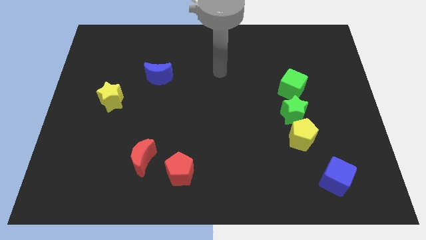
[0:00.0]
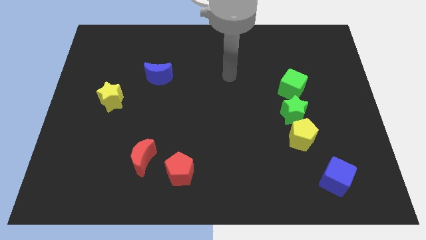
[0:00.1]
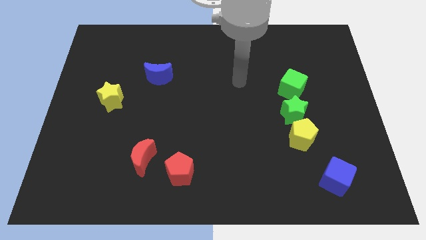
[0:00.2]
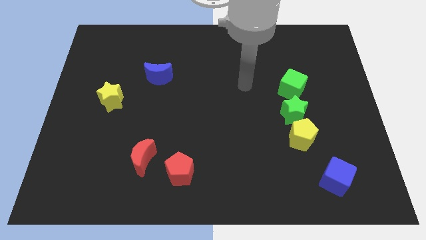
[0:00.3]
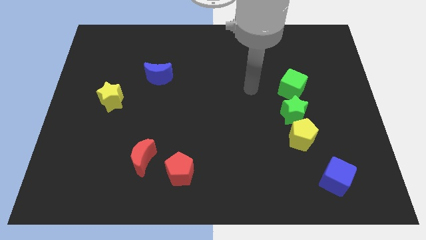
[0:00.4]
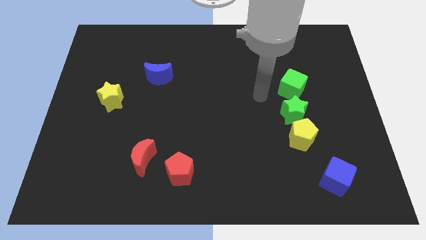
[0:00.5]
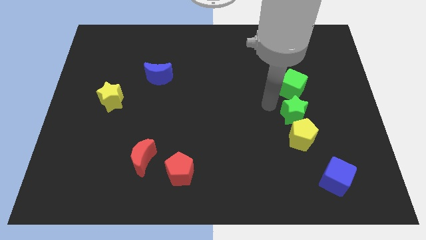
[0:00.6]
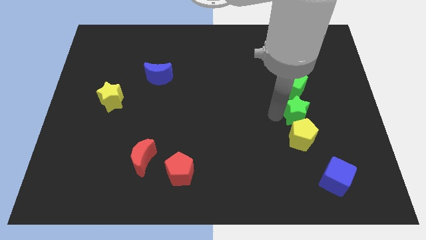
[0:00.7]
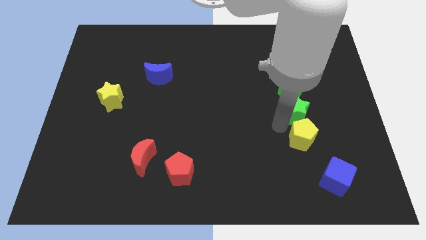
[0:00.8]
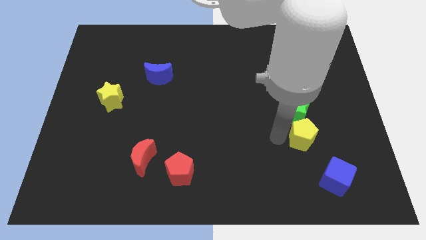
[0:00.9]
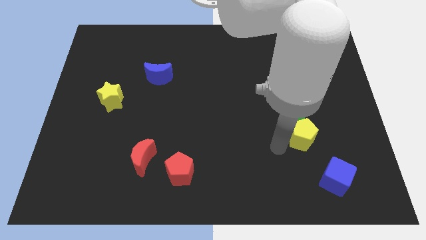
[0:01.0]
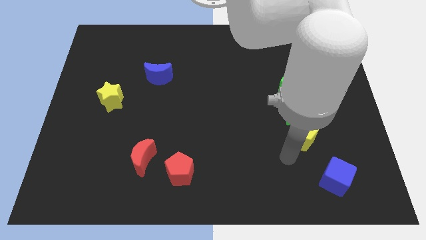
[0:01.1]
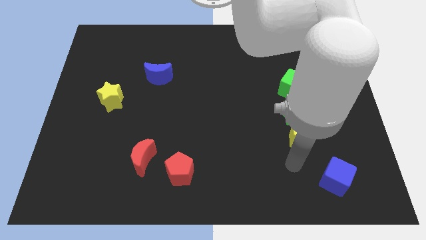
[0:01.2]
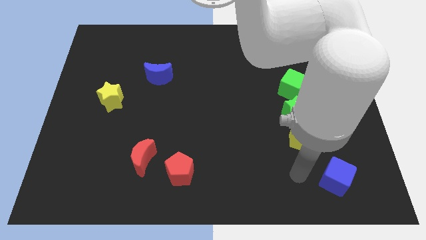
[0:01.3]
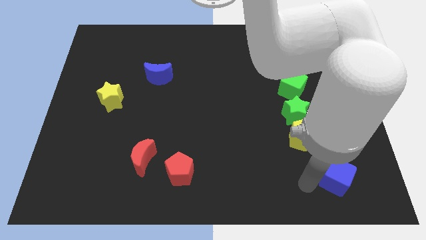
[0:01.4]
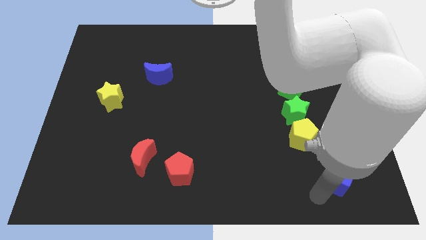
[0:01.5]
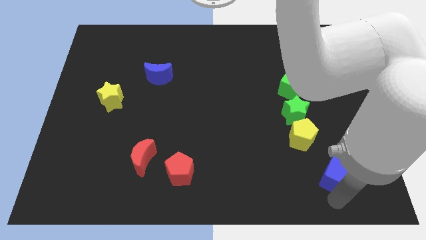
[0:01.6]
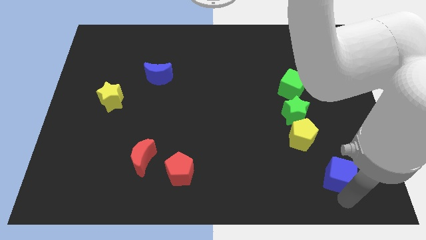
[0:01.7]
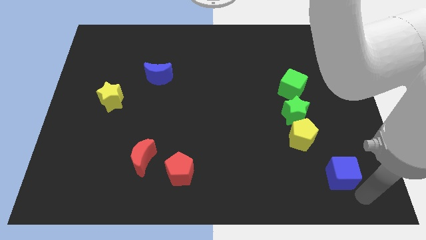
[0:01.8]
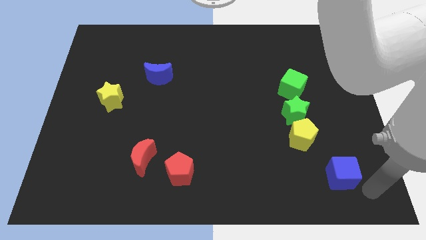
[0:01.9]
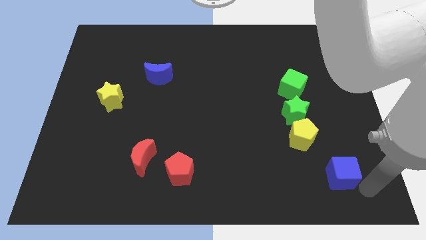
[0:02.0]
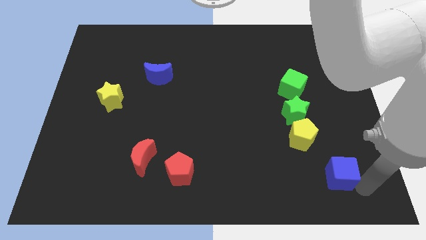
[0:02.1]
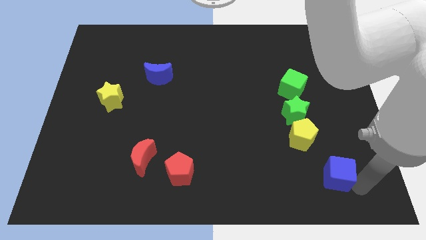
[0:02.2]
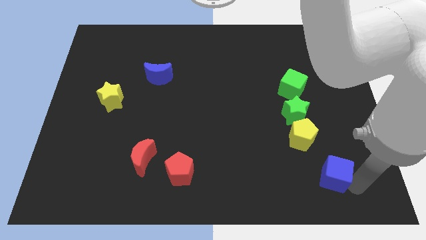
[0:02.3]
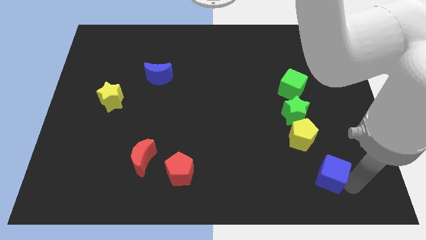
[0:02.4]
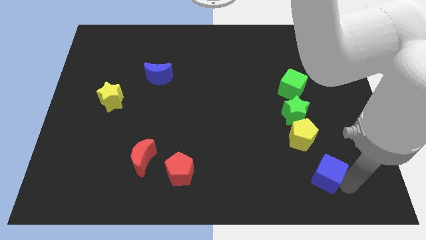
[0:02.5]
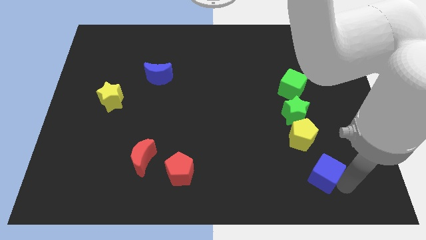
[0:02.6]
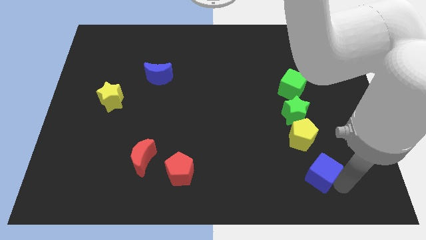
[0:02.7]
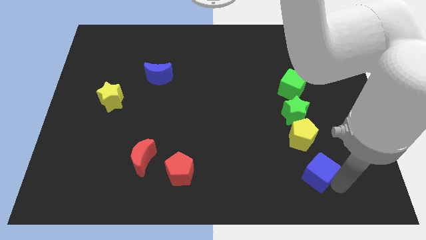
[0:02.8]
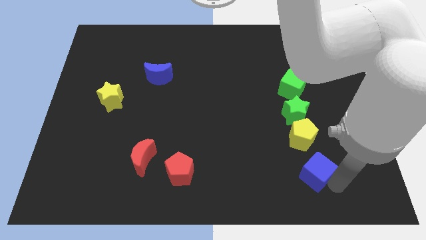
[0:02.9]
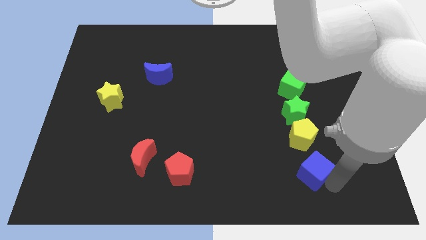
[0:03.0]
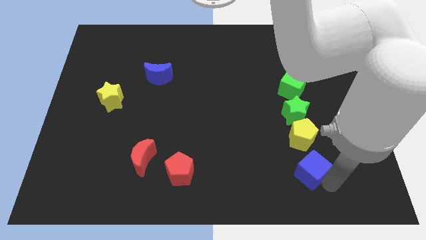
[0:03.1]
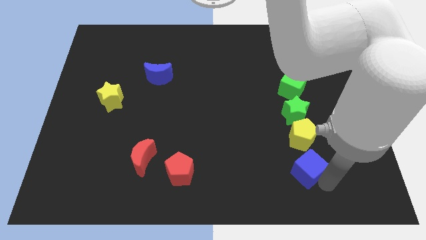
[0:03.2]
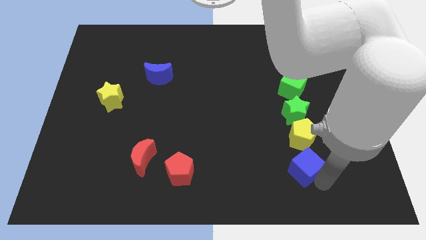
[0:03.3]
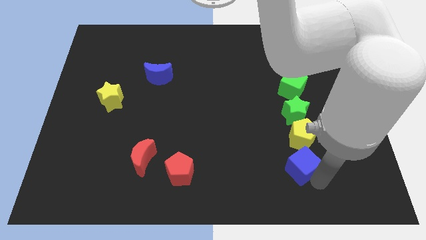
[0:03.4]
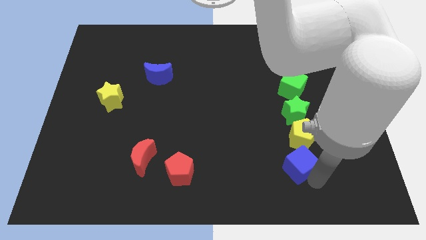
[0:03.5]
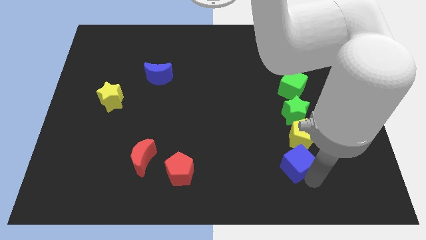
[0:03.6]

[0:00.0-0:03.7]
slide the blue cube somewhat diagonally up and to the left

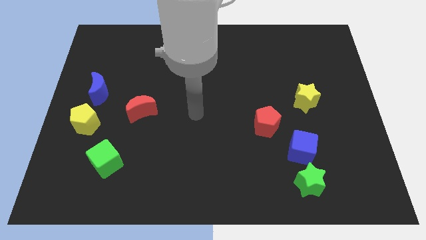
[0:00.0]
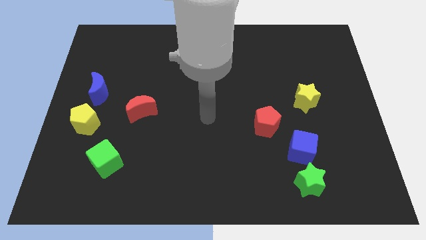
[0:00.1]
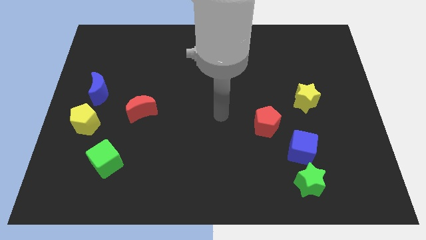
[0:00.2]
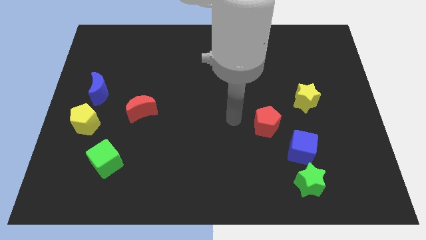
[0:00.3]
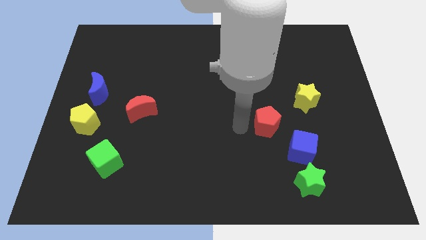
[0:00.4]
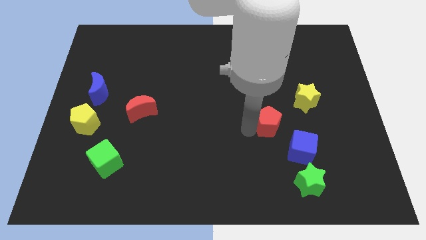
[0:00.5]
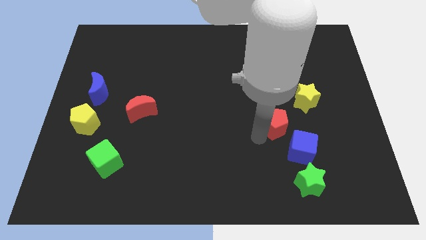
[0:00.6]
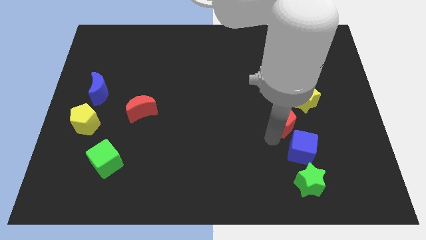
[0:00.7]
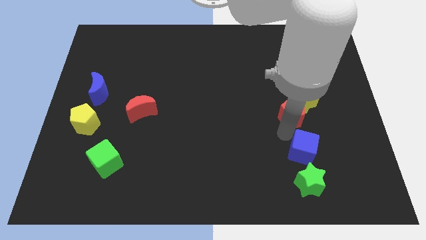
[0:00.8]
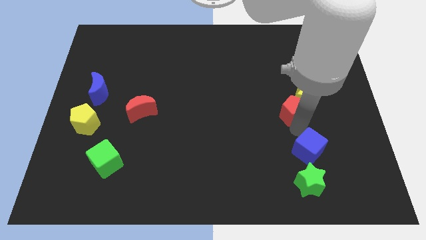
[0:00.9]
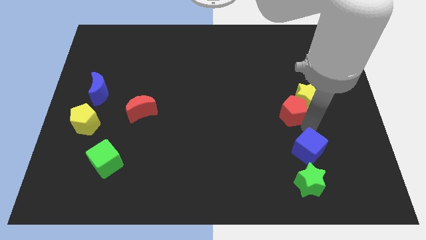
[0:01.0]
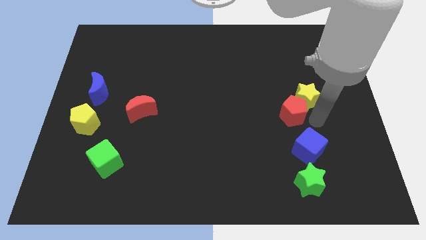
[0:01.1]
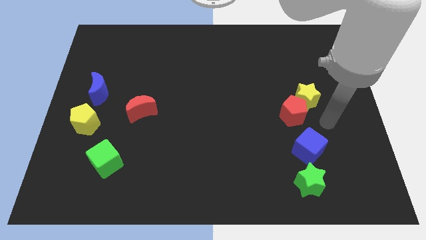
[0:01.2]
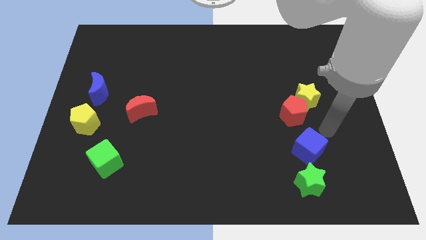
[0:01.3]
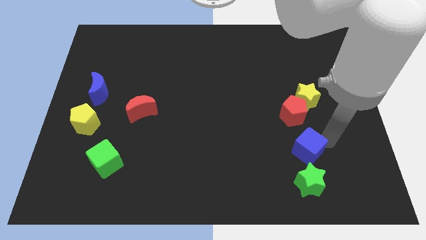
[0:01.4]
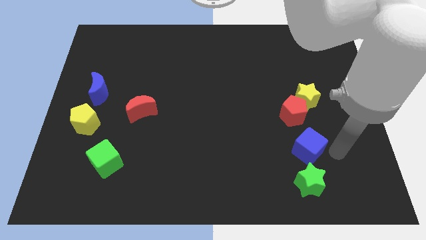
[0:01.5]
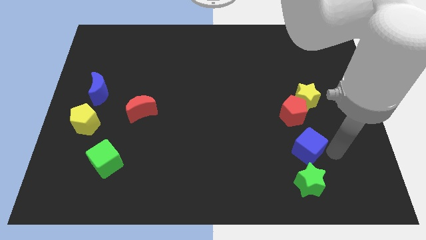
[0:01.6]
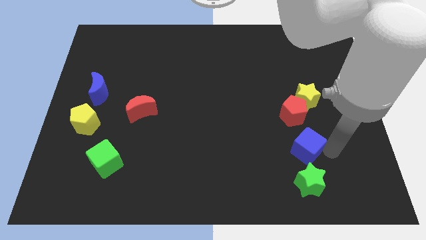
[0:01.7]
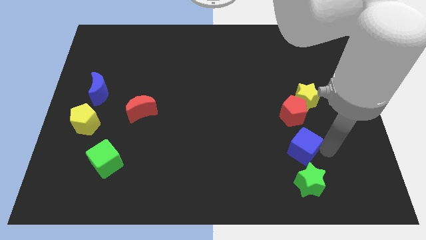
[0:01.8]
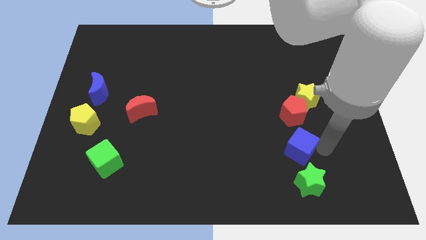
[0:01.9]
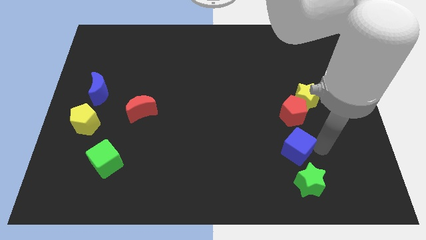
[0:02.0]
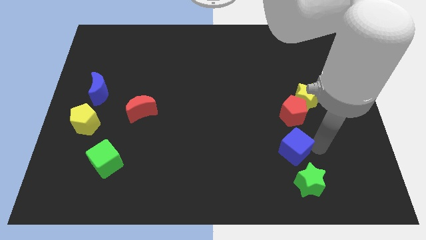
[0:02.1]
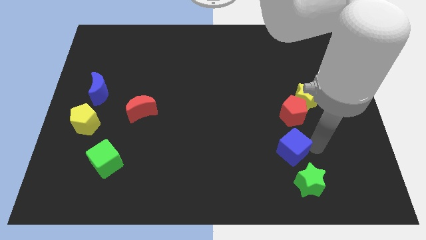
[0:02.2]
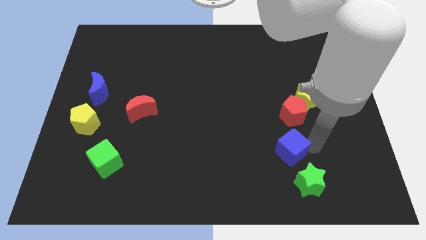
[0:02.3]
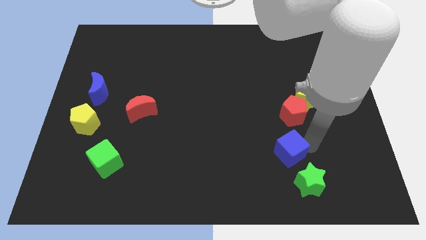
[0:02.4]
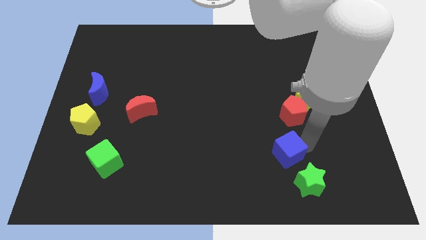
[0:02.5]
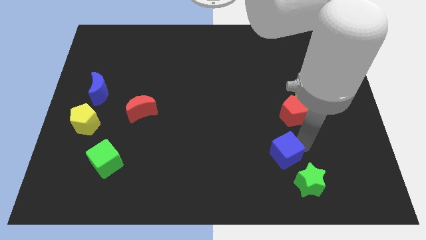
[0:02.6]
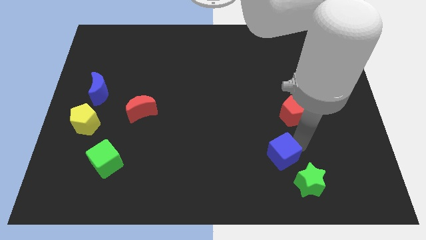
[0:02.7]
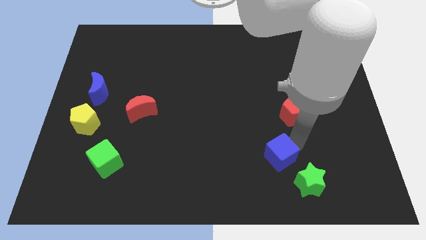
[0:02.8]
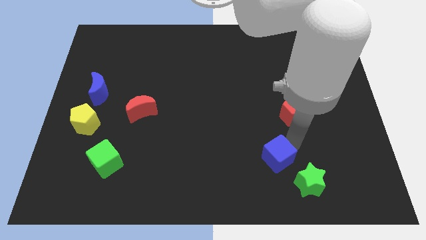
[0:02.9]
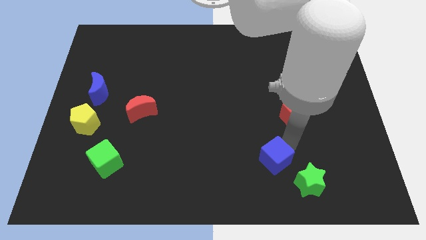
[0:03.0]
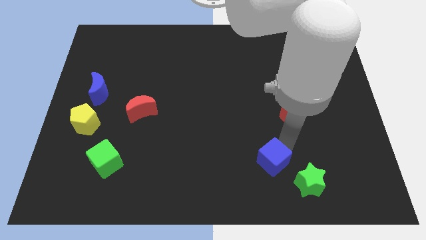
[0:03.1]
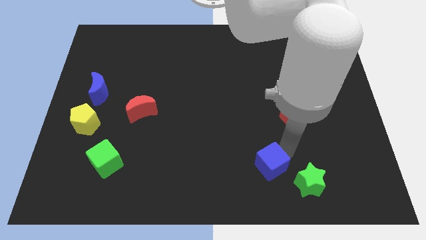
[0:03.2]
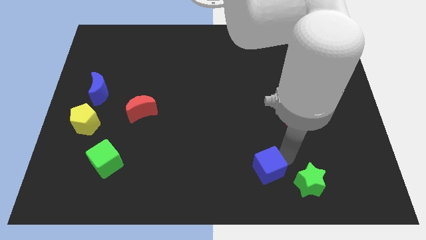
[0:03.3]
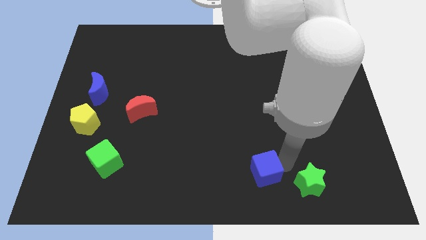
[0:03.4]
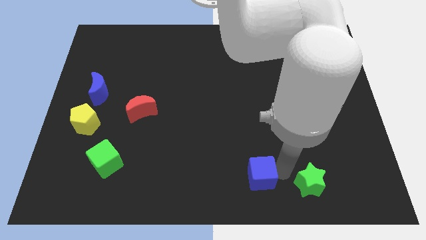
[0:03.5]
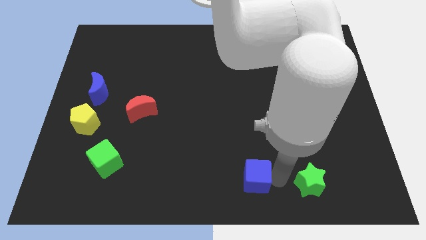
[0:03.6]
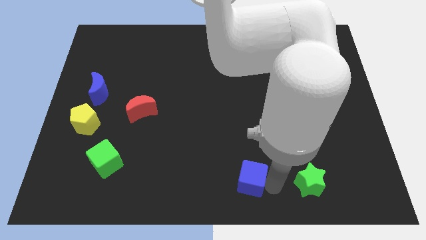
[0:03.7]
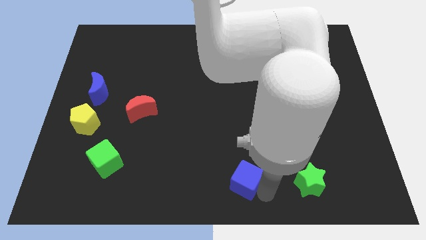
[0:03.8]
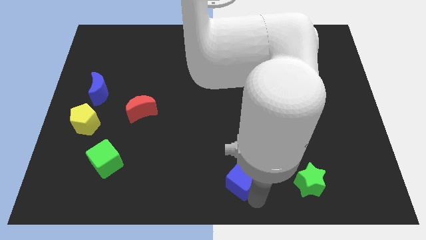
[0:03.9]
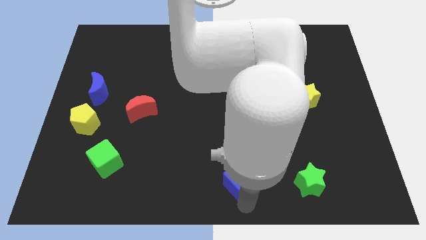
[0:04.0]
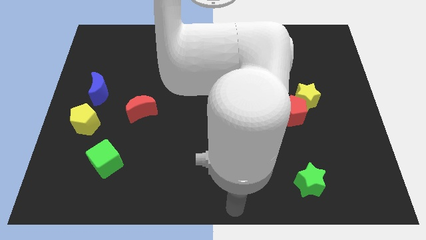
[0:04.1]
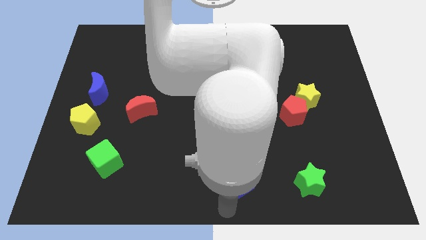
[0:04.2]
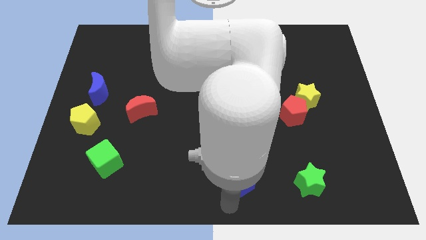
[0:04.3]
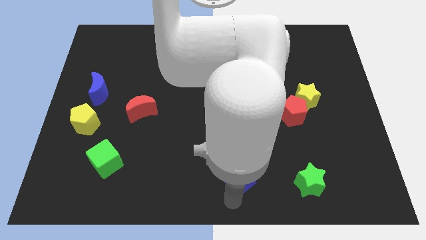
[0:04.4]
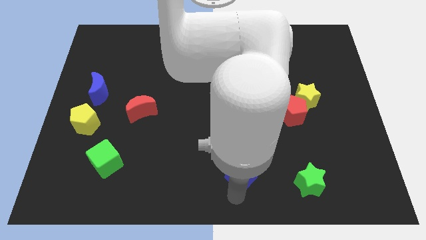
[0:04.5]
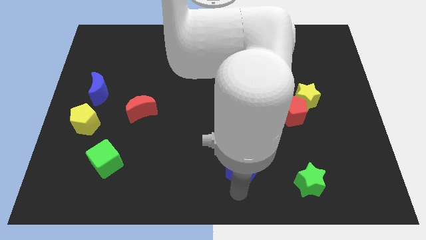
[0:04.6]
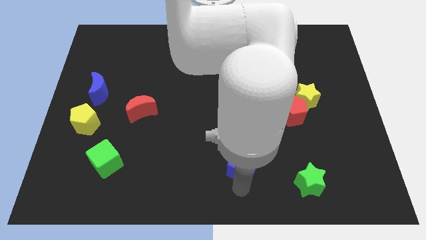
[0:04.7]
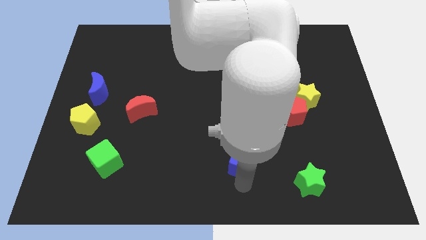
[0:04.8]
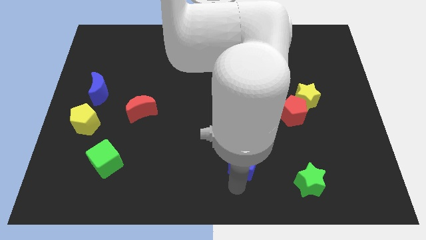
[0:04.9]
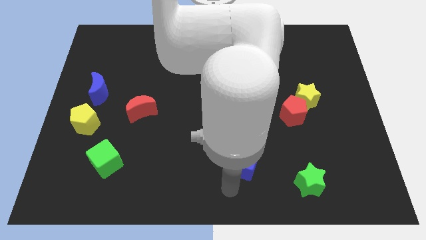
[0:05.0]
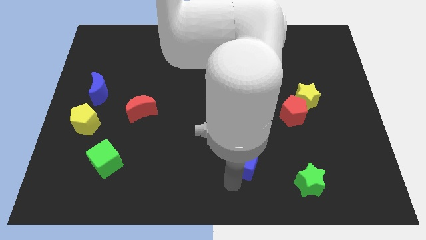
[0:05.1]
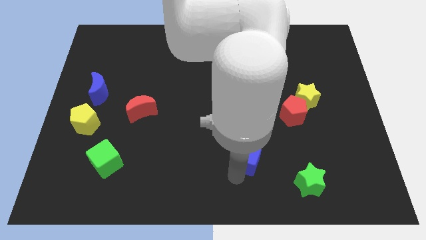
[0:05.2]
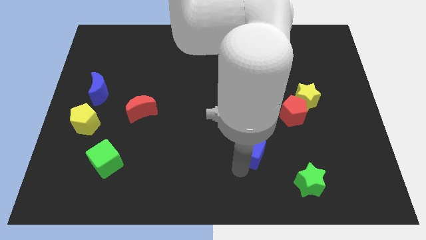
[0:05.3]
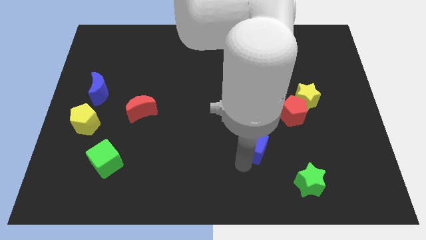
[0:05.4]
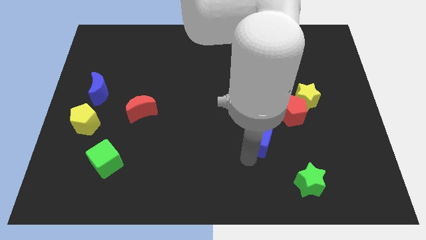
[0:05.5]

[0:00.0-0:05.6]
slide the blue cube up and left diagonally slightly
